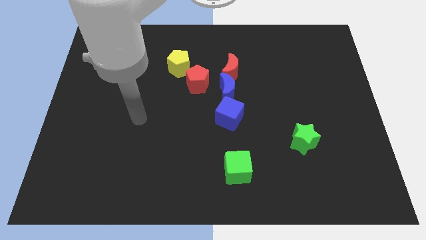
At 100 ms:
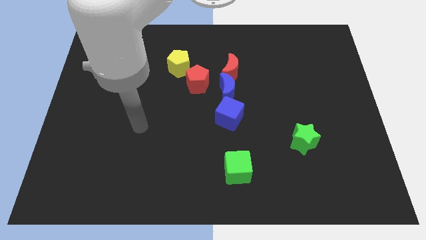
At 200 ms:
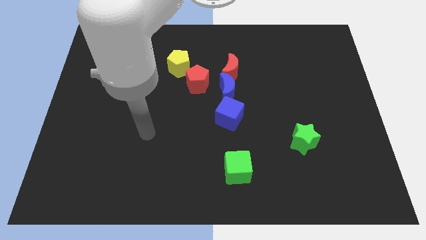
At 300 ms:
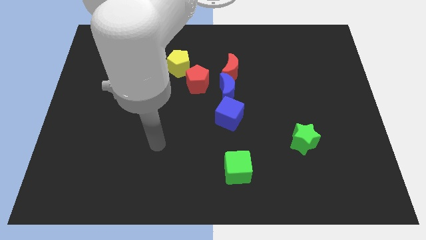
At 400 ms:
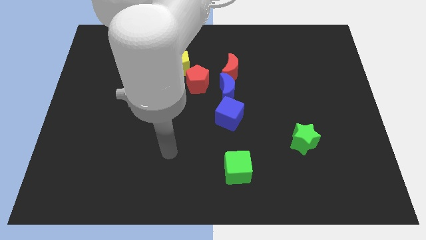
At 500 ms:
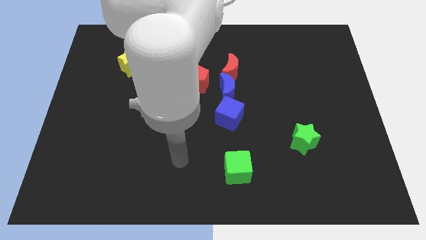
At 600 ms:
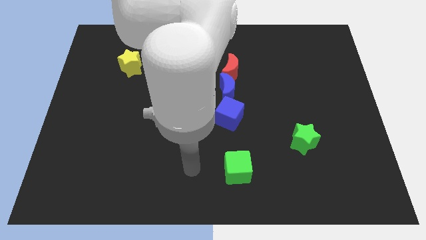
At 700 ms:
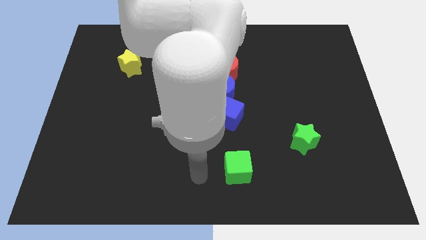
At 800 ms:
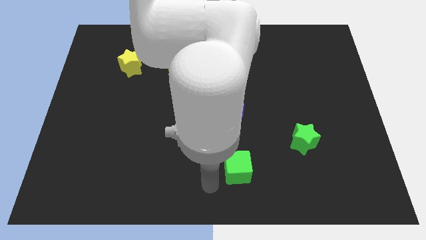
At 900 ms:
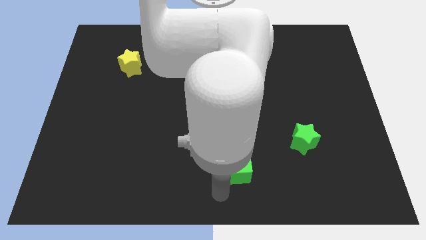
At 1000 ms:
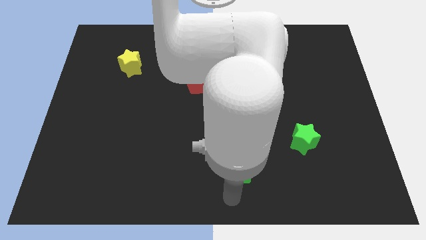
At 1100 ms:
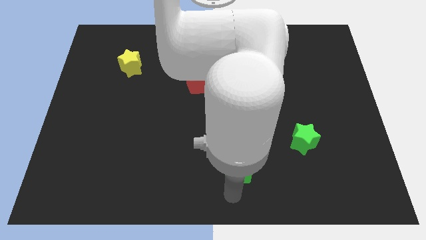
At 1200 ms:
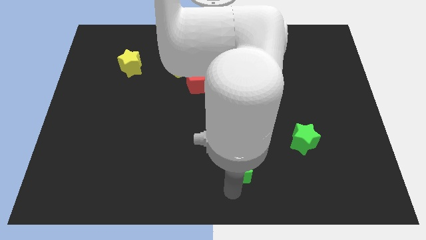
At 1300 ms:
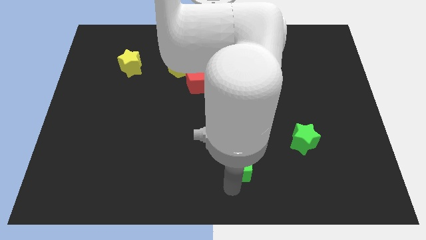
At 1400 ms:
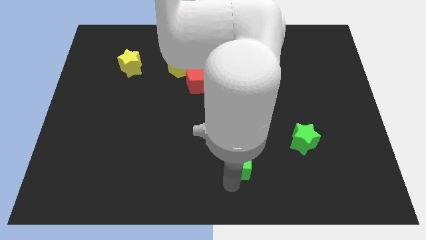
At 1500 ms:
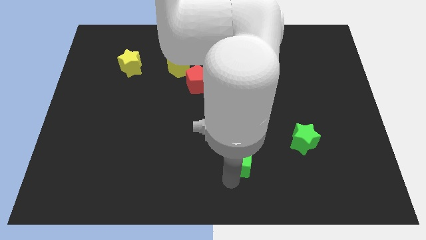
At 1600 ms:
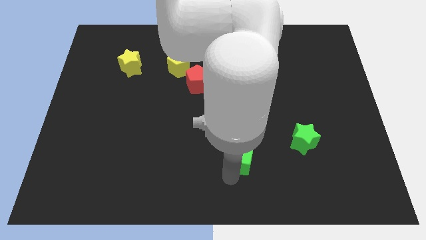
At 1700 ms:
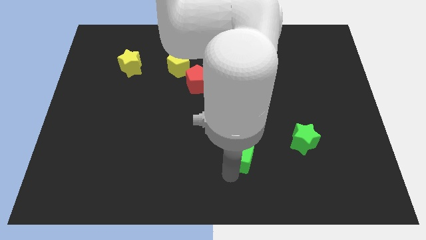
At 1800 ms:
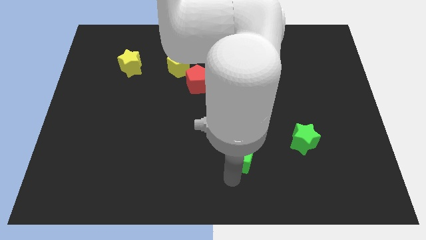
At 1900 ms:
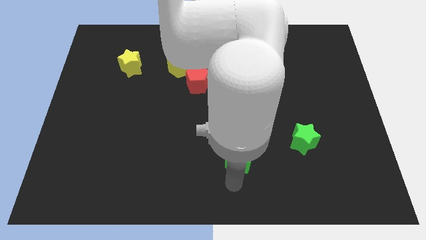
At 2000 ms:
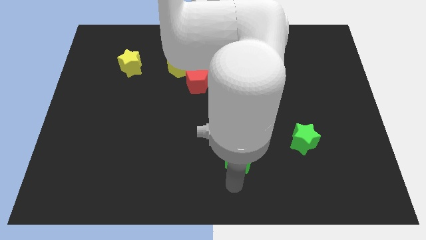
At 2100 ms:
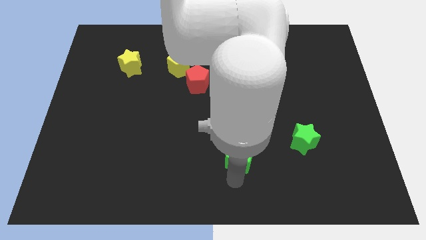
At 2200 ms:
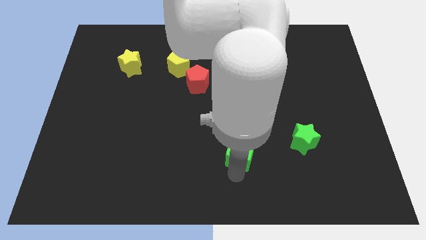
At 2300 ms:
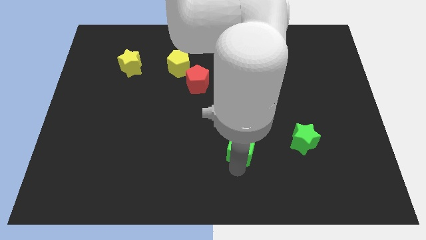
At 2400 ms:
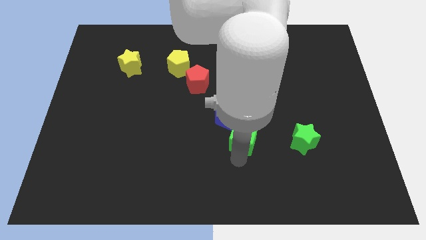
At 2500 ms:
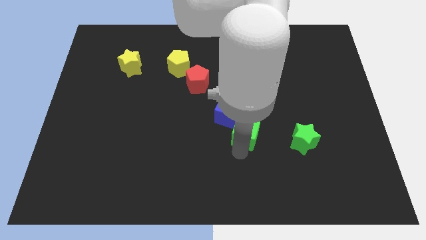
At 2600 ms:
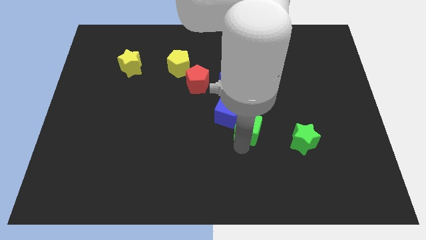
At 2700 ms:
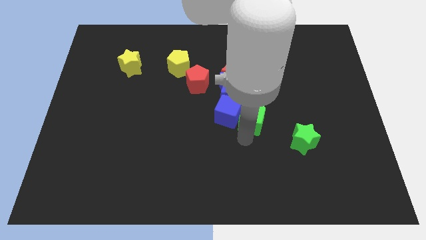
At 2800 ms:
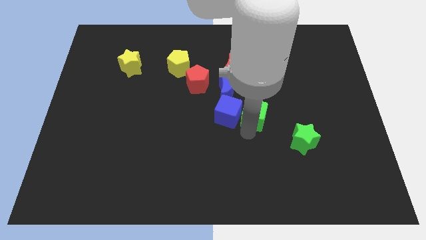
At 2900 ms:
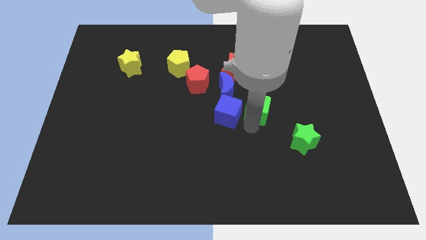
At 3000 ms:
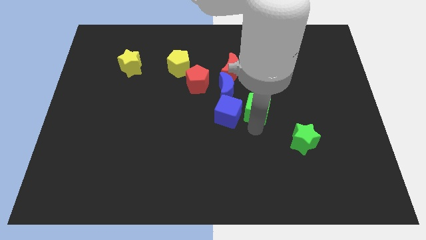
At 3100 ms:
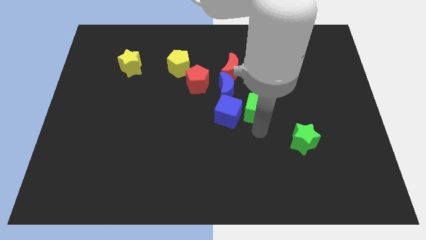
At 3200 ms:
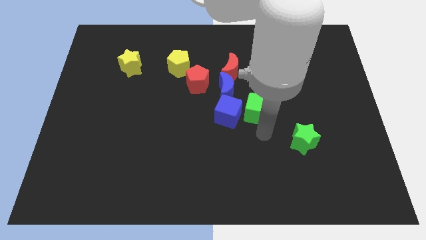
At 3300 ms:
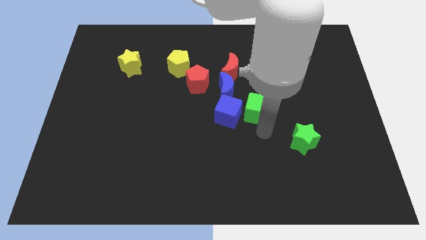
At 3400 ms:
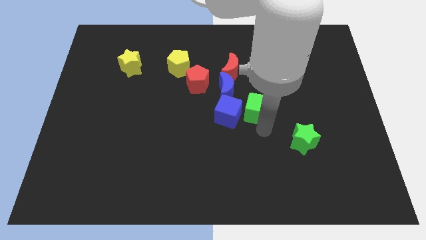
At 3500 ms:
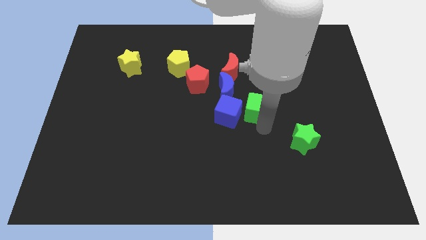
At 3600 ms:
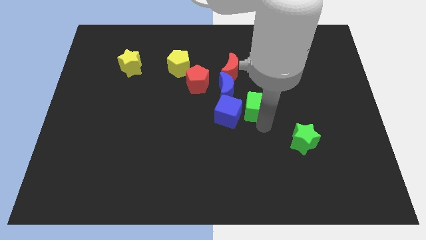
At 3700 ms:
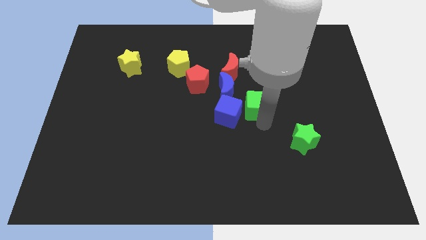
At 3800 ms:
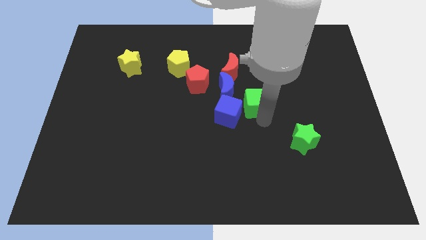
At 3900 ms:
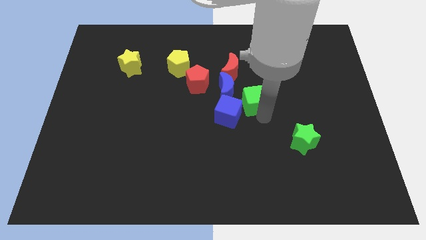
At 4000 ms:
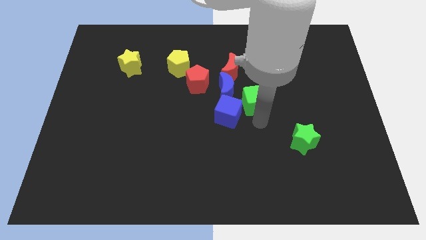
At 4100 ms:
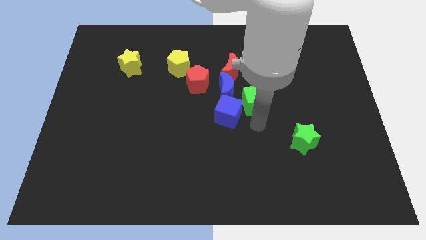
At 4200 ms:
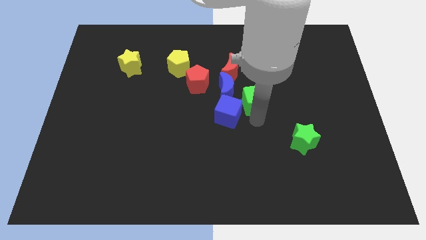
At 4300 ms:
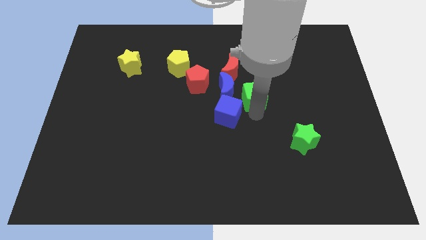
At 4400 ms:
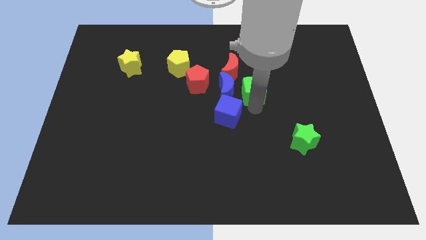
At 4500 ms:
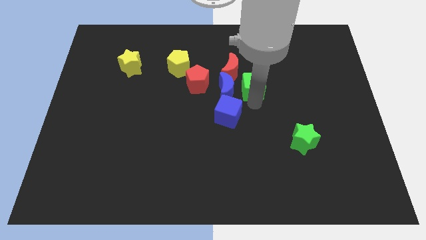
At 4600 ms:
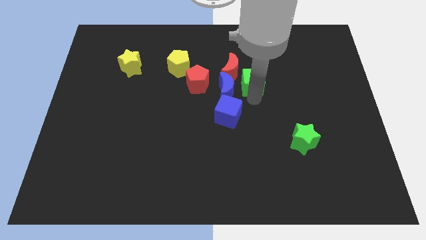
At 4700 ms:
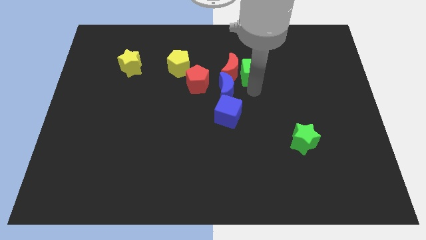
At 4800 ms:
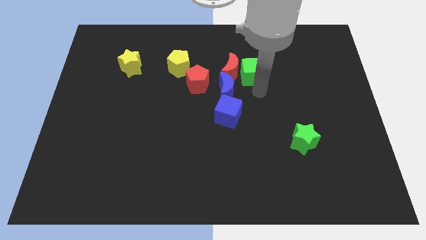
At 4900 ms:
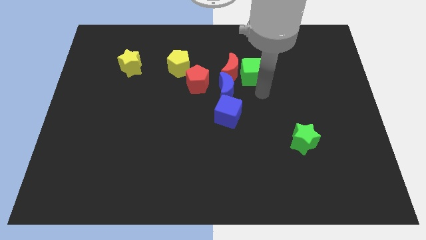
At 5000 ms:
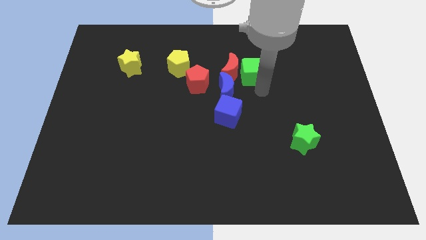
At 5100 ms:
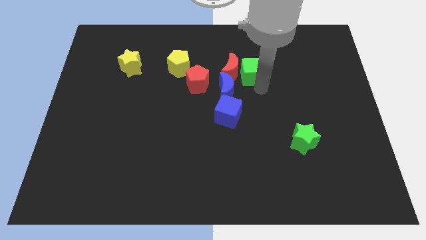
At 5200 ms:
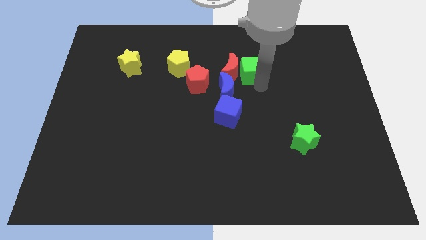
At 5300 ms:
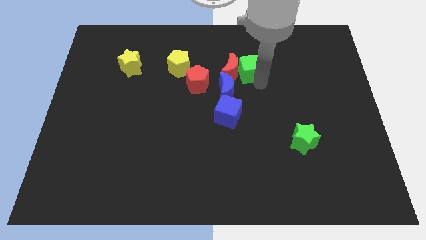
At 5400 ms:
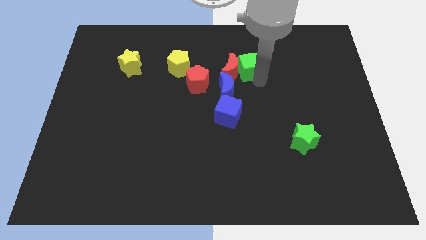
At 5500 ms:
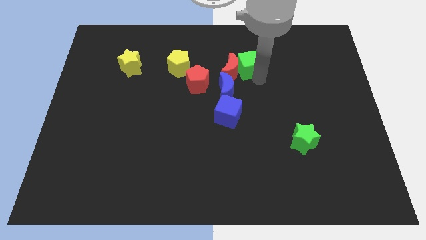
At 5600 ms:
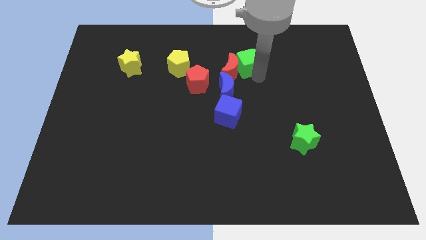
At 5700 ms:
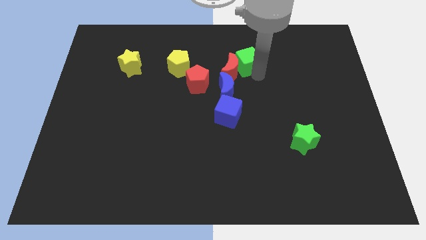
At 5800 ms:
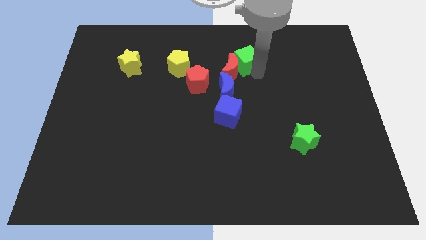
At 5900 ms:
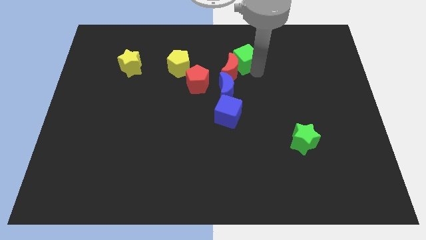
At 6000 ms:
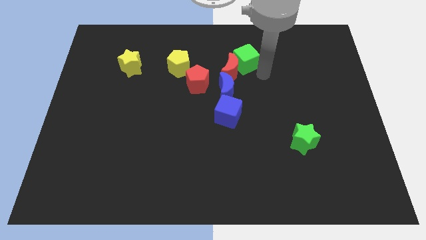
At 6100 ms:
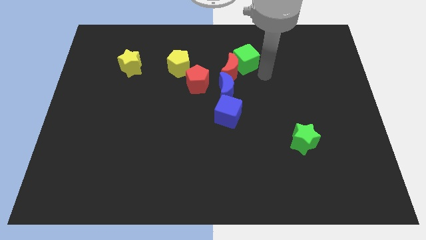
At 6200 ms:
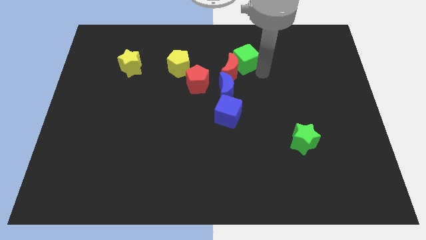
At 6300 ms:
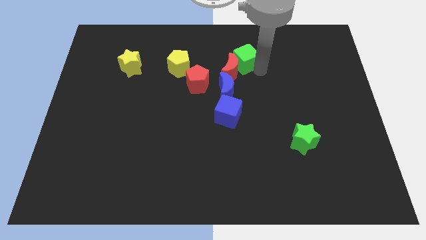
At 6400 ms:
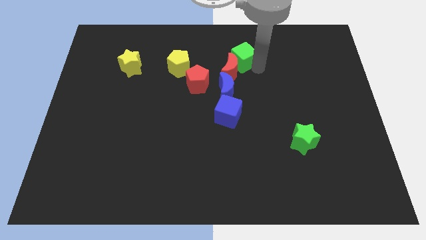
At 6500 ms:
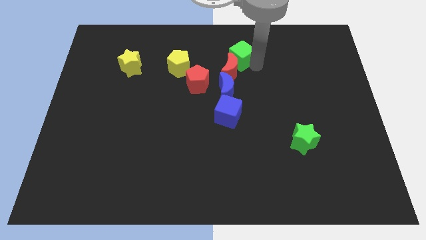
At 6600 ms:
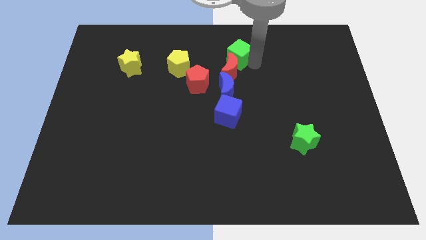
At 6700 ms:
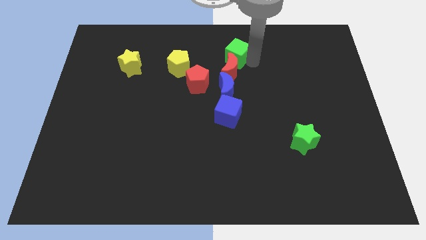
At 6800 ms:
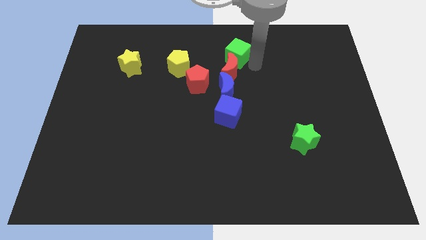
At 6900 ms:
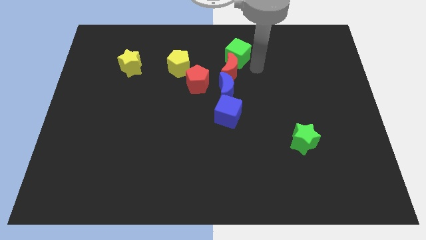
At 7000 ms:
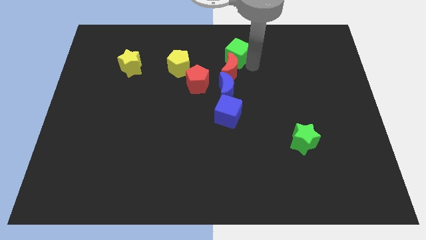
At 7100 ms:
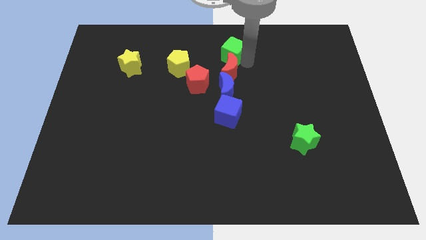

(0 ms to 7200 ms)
push the green cube to the top side
